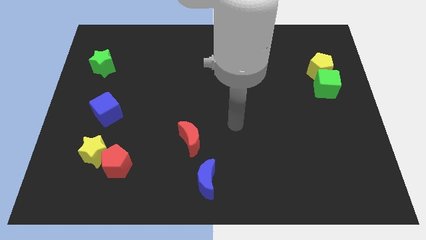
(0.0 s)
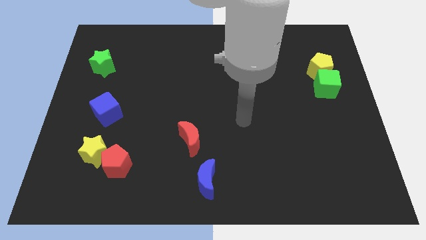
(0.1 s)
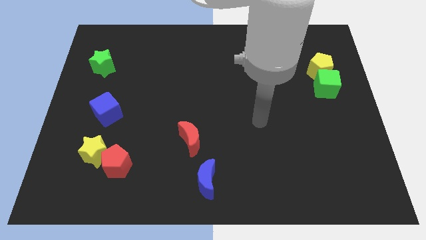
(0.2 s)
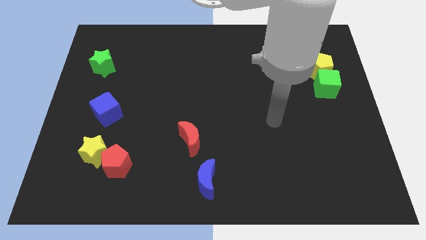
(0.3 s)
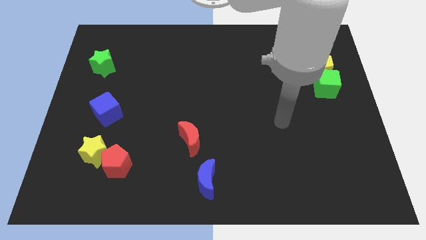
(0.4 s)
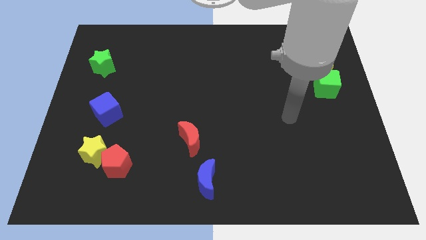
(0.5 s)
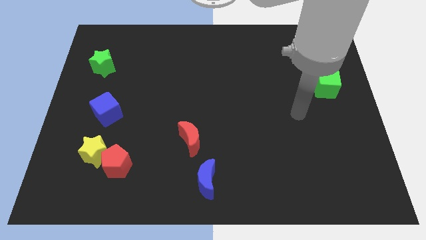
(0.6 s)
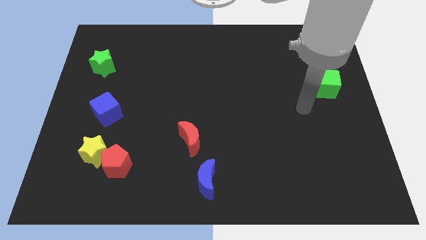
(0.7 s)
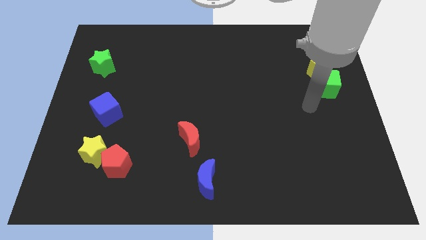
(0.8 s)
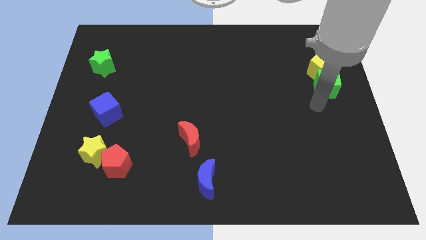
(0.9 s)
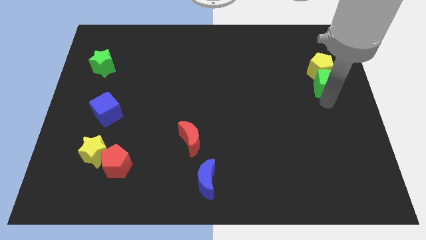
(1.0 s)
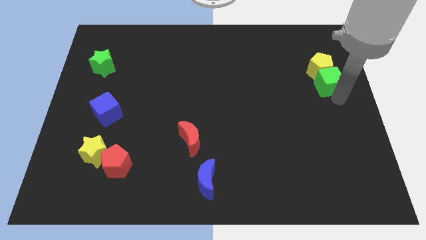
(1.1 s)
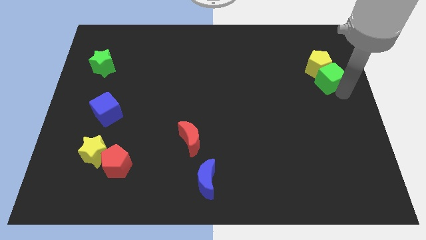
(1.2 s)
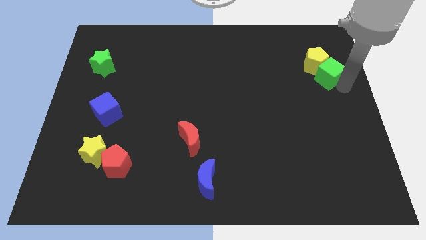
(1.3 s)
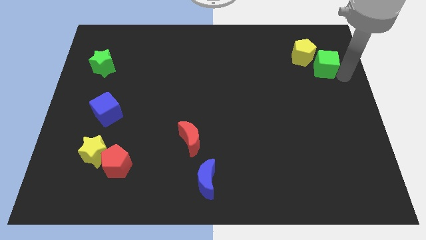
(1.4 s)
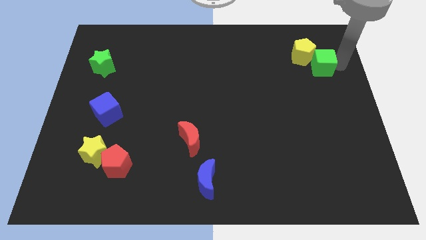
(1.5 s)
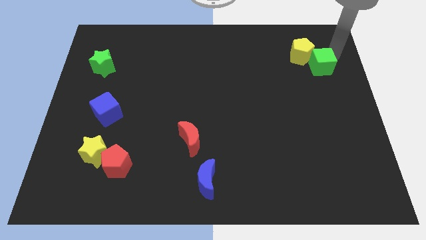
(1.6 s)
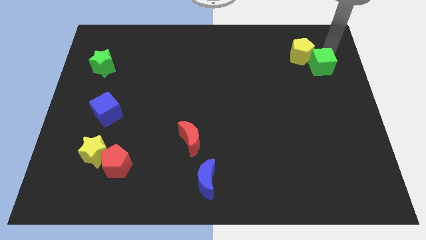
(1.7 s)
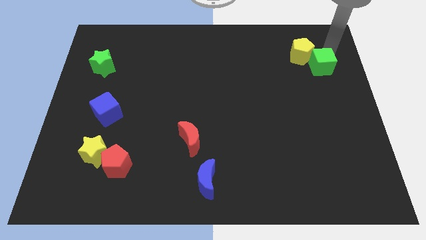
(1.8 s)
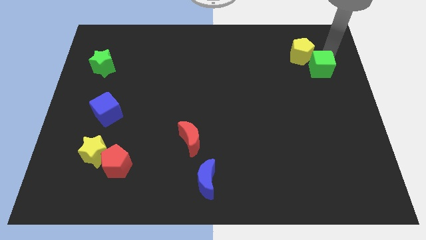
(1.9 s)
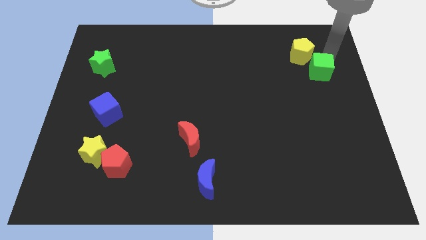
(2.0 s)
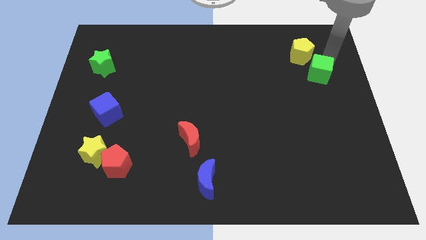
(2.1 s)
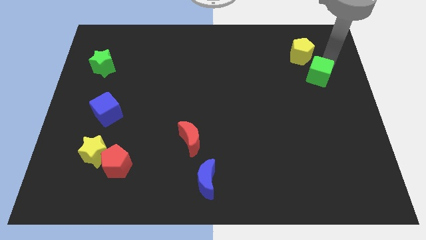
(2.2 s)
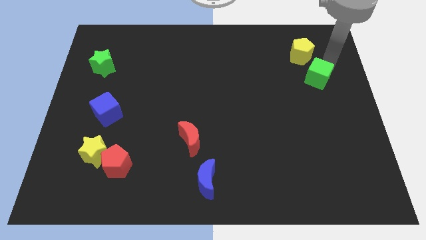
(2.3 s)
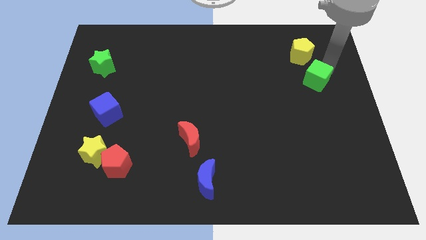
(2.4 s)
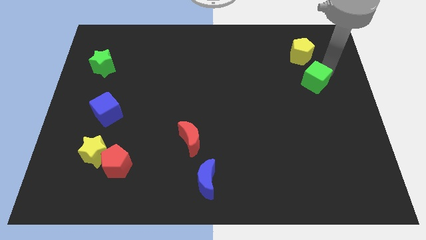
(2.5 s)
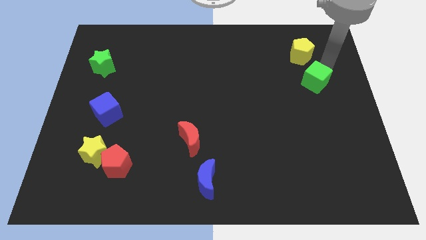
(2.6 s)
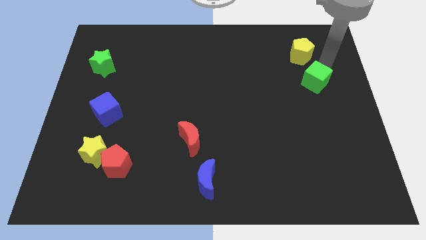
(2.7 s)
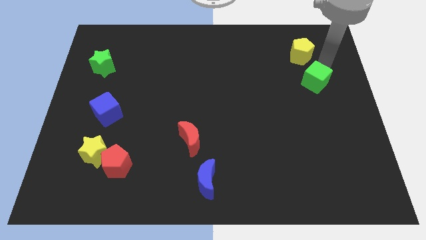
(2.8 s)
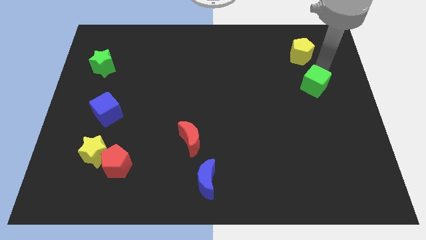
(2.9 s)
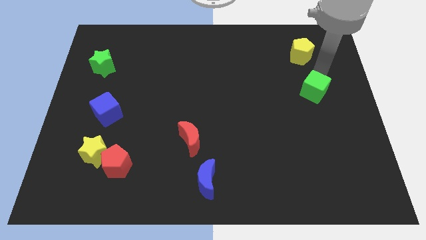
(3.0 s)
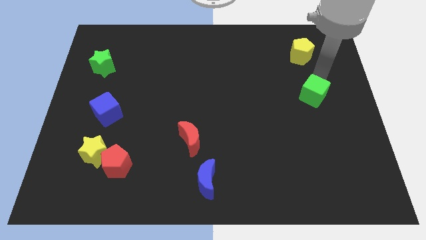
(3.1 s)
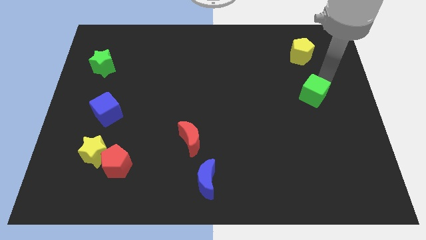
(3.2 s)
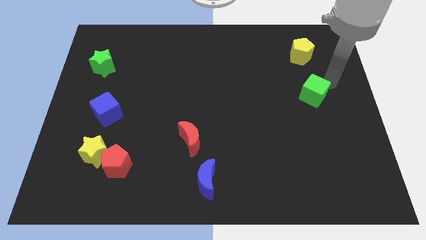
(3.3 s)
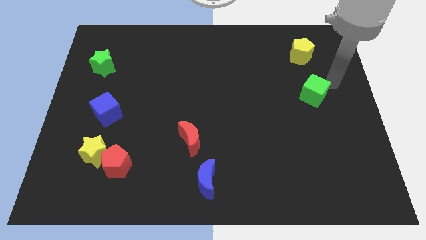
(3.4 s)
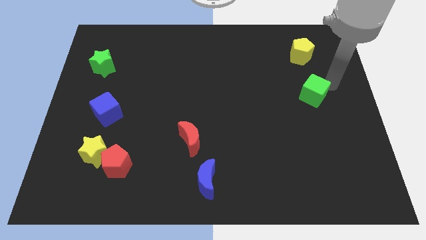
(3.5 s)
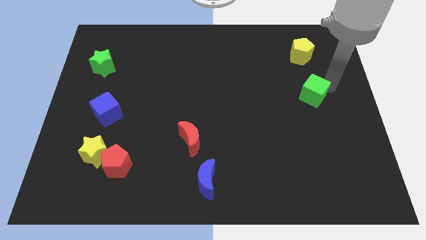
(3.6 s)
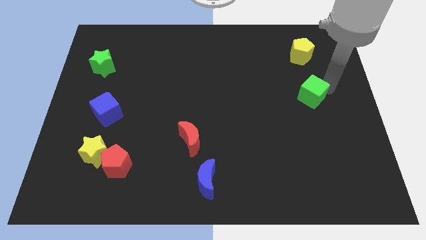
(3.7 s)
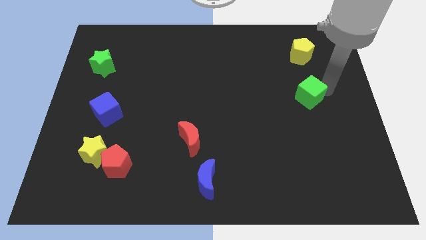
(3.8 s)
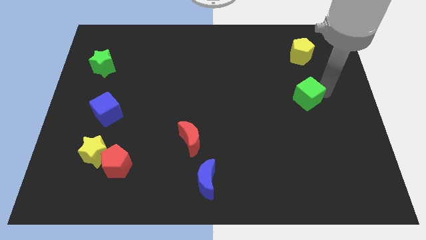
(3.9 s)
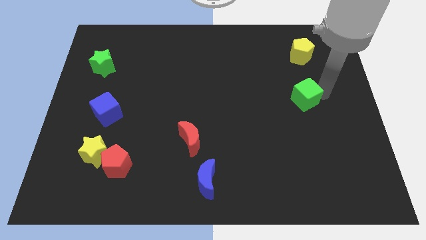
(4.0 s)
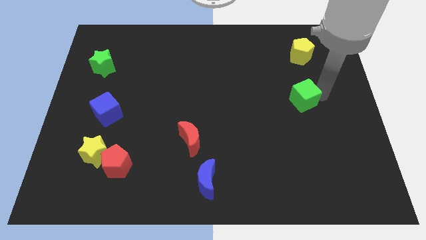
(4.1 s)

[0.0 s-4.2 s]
push the green cube downwards and left diagonally a little

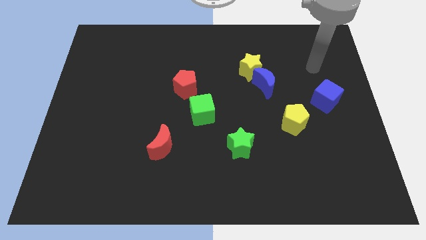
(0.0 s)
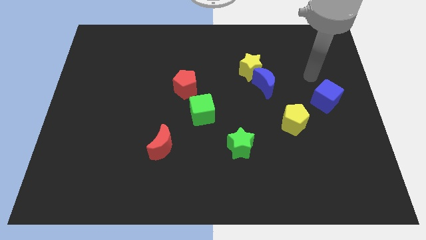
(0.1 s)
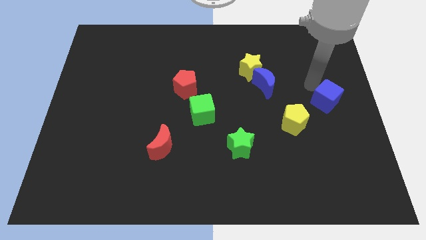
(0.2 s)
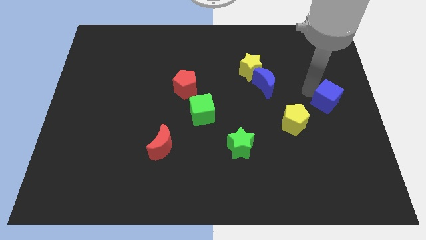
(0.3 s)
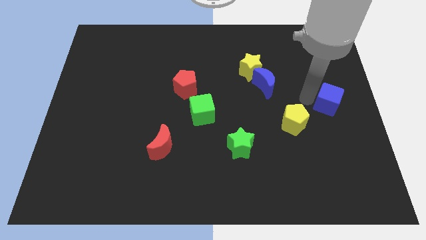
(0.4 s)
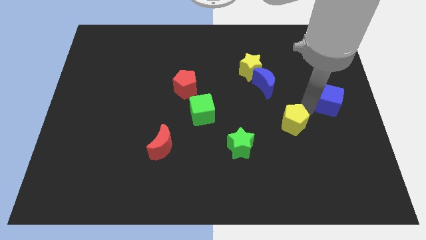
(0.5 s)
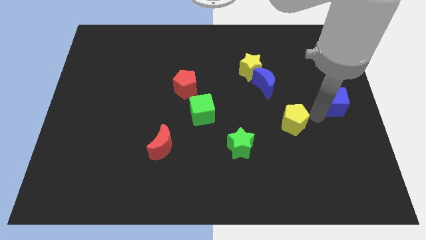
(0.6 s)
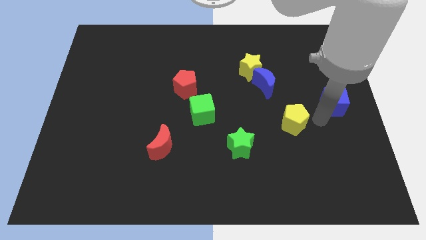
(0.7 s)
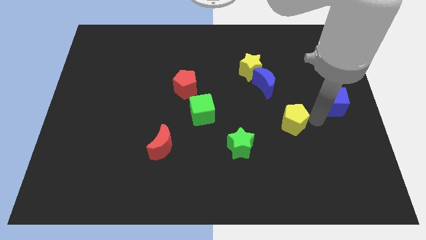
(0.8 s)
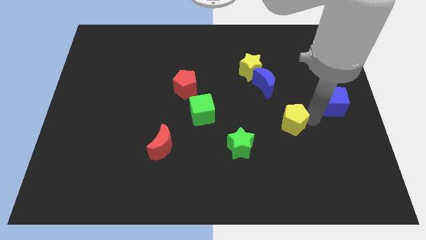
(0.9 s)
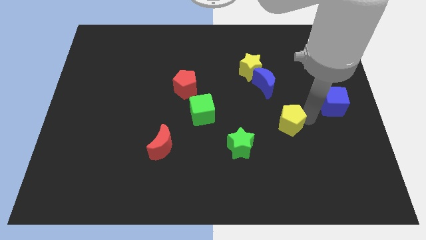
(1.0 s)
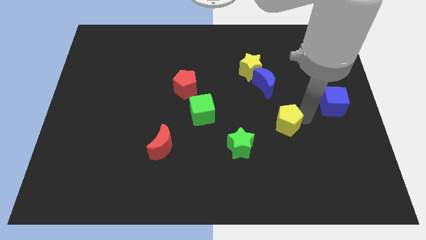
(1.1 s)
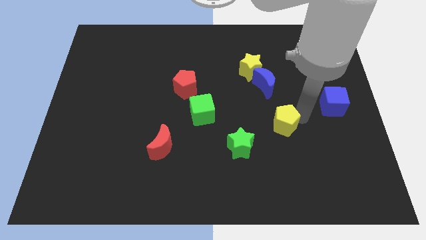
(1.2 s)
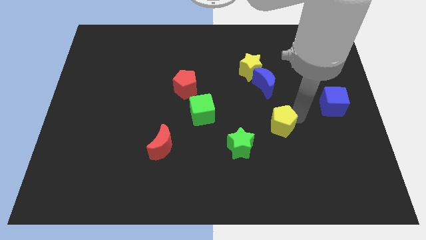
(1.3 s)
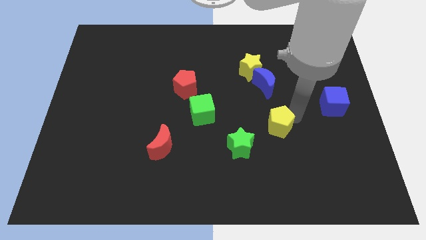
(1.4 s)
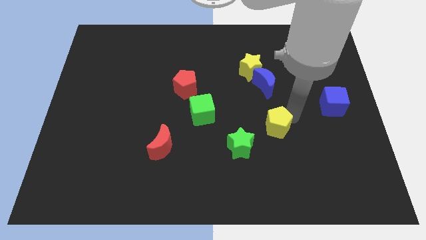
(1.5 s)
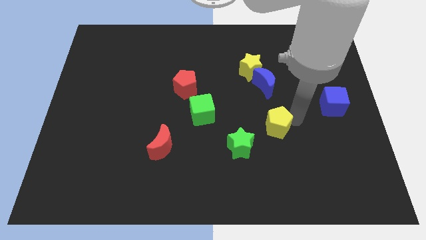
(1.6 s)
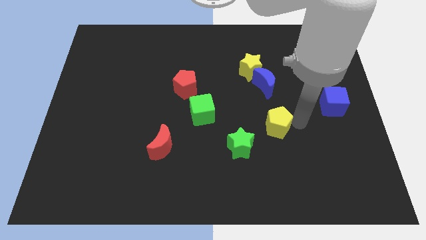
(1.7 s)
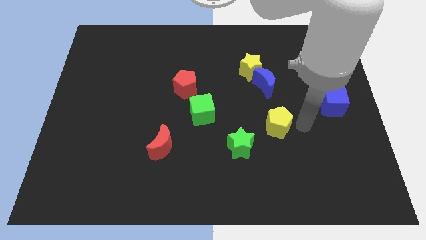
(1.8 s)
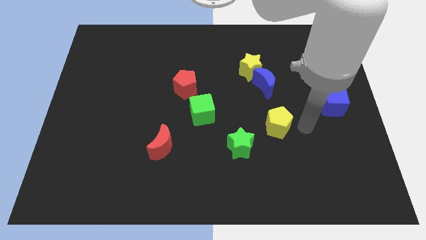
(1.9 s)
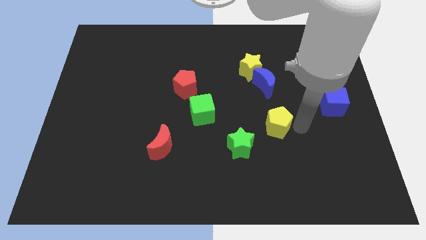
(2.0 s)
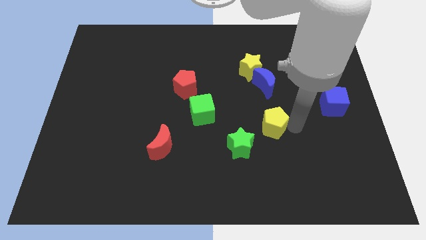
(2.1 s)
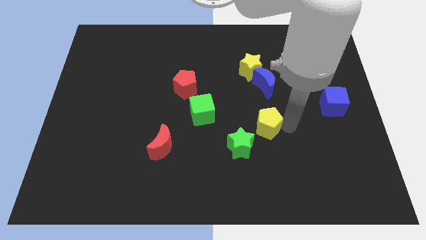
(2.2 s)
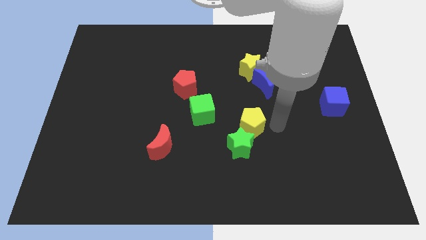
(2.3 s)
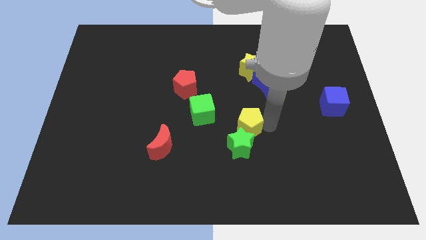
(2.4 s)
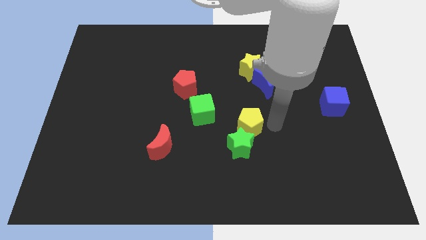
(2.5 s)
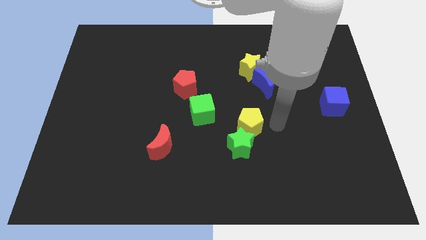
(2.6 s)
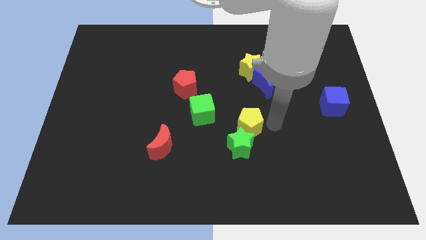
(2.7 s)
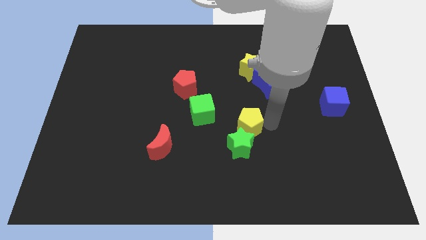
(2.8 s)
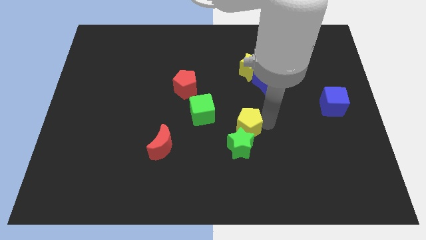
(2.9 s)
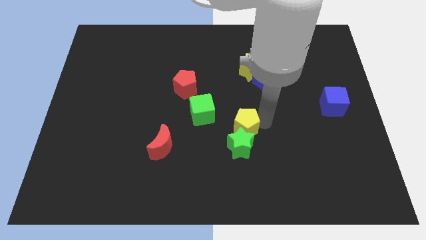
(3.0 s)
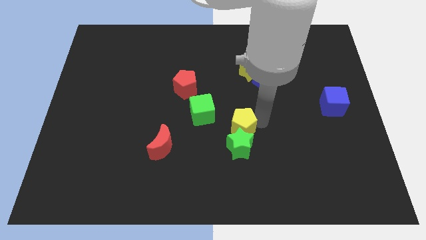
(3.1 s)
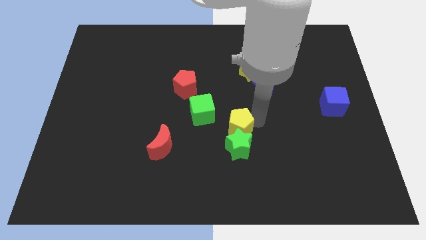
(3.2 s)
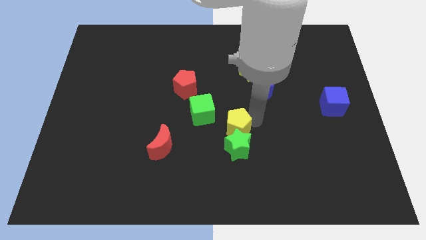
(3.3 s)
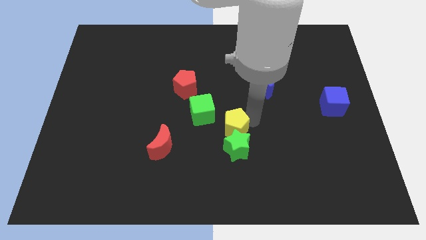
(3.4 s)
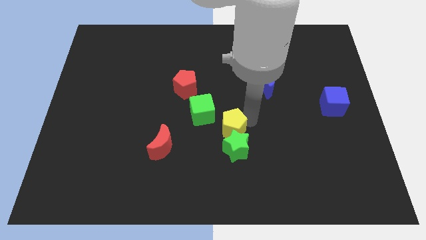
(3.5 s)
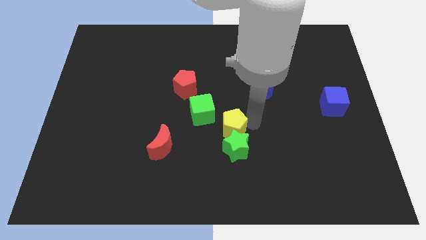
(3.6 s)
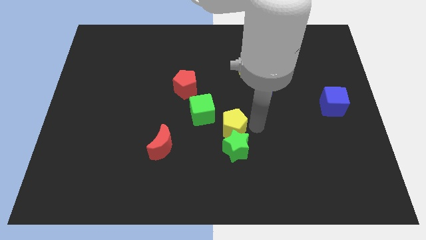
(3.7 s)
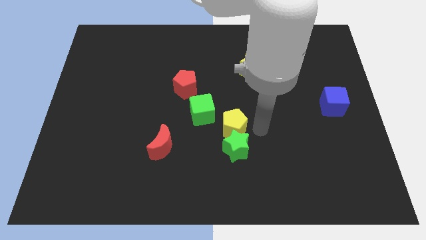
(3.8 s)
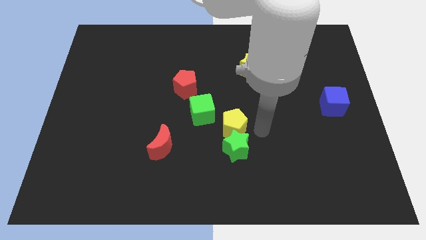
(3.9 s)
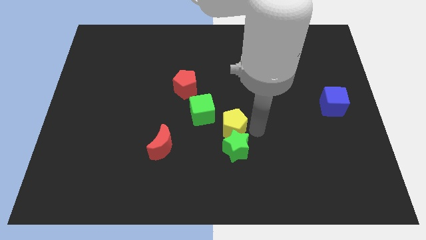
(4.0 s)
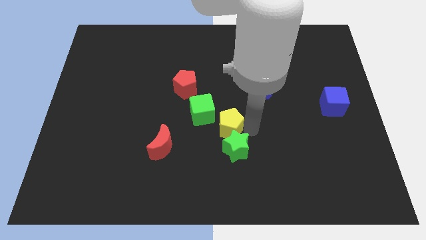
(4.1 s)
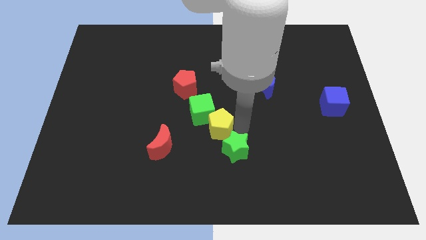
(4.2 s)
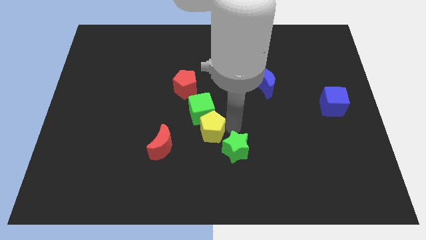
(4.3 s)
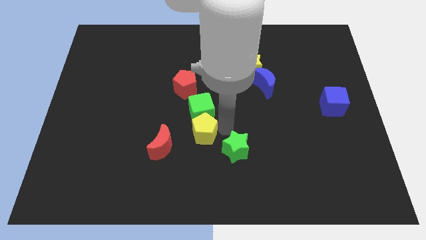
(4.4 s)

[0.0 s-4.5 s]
move the yellow pentagon to the left
